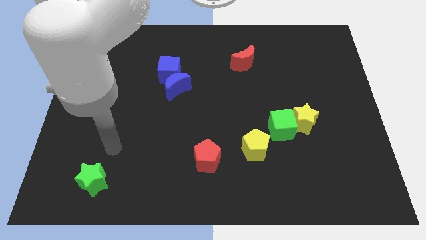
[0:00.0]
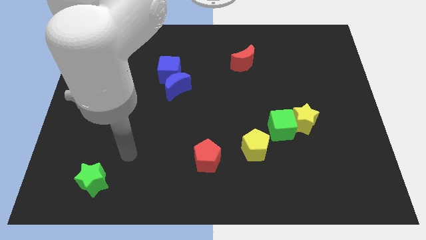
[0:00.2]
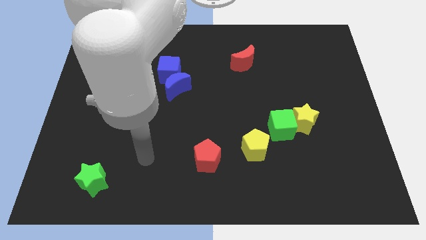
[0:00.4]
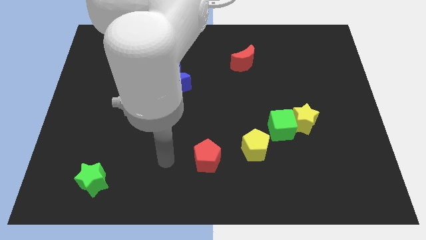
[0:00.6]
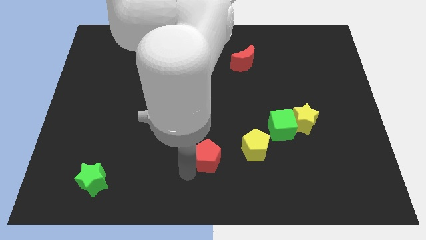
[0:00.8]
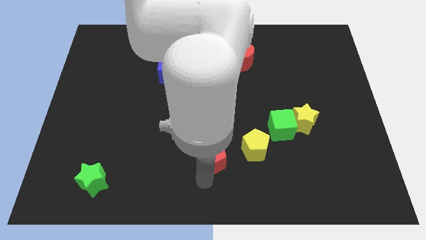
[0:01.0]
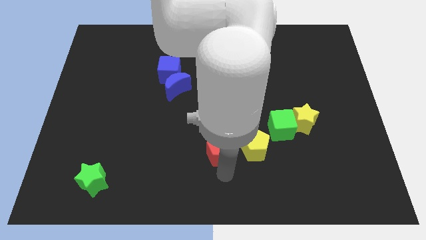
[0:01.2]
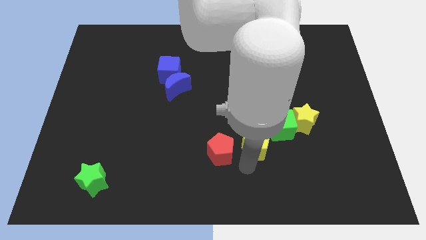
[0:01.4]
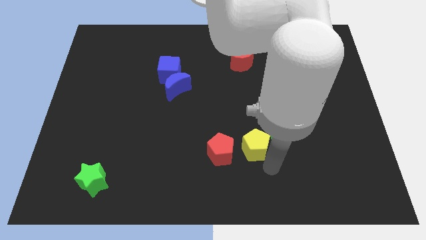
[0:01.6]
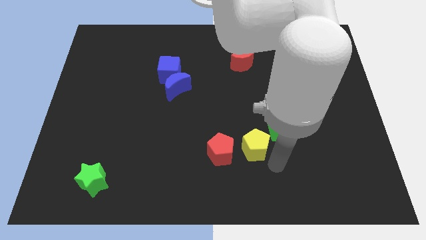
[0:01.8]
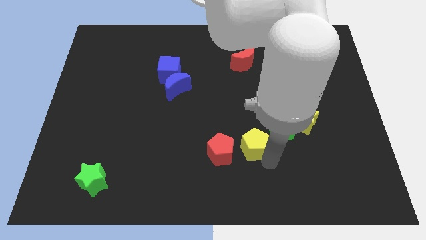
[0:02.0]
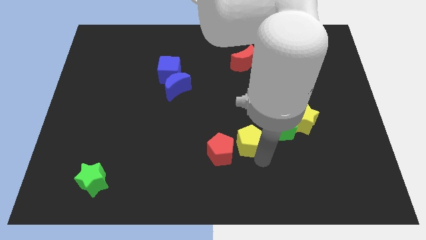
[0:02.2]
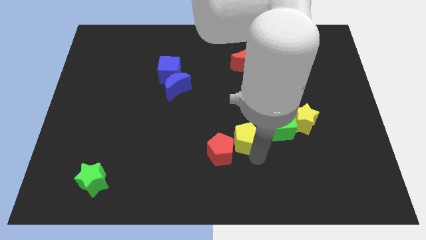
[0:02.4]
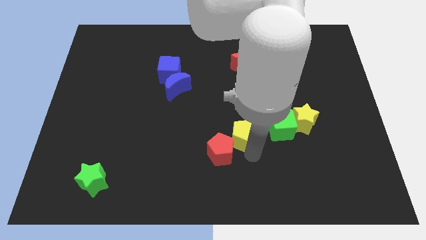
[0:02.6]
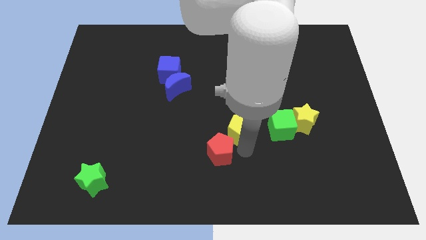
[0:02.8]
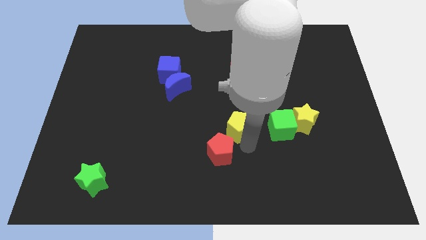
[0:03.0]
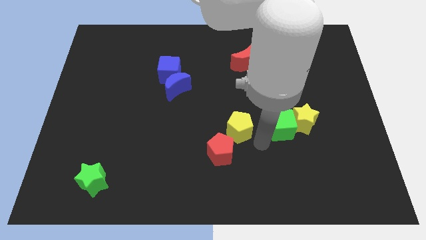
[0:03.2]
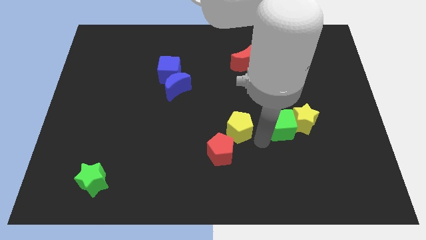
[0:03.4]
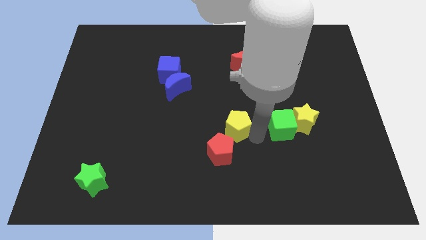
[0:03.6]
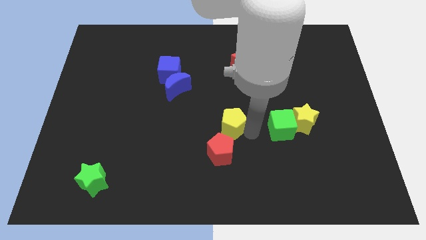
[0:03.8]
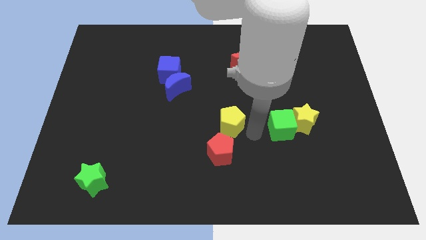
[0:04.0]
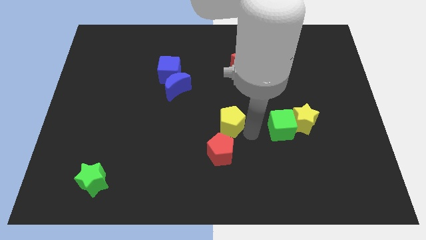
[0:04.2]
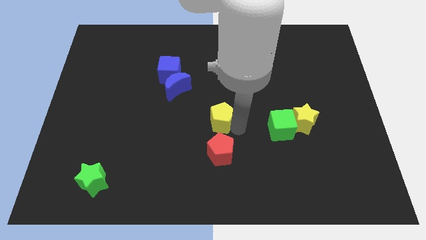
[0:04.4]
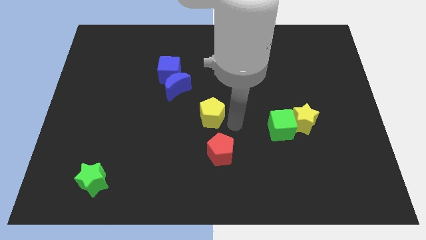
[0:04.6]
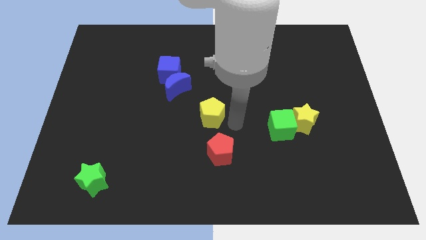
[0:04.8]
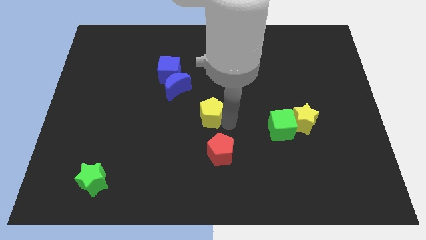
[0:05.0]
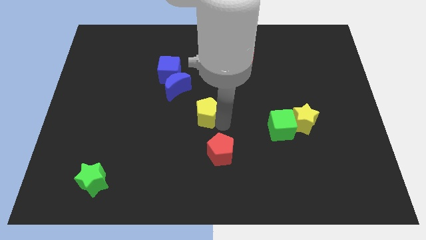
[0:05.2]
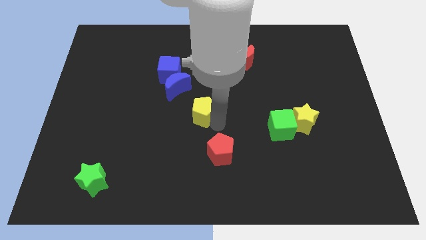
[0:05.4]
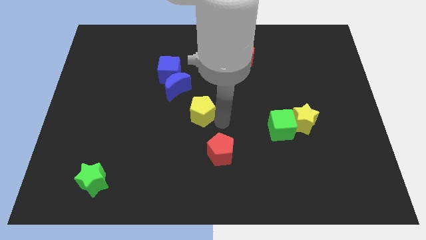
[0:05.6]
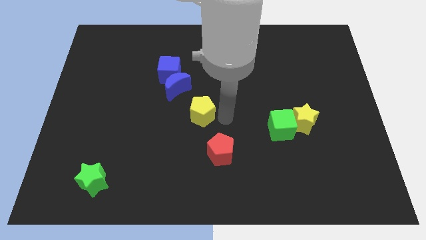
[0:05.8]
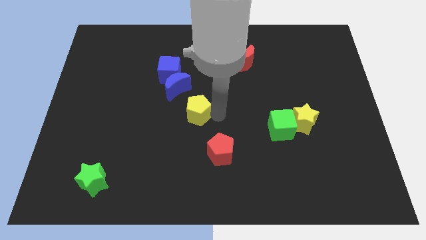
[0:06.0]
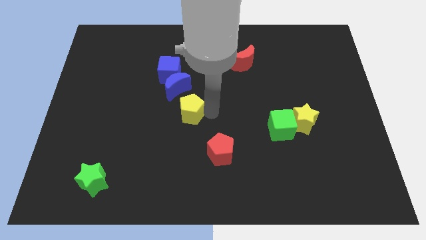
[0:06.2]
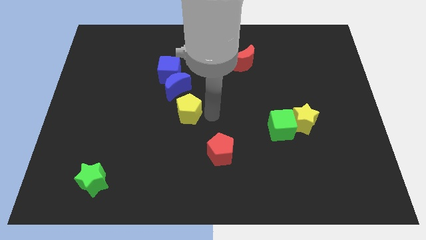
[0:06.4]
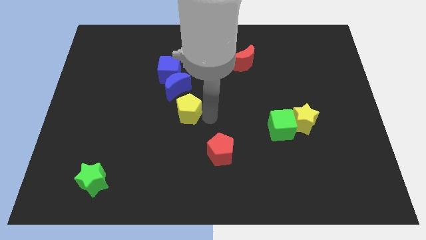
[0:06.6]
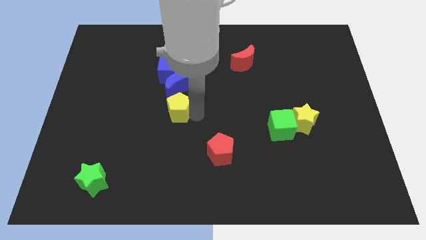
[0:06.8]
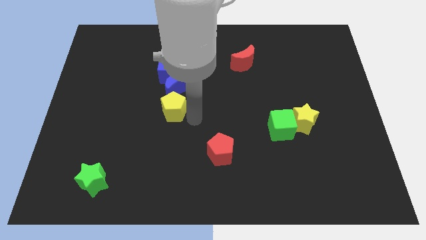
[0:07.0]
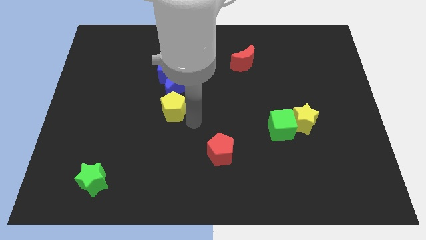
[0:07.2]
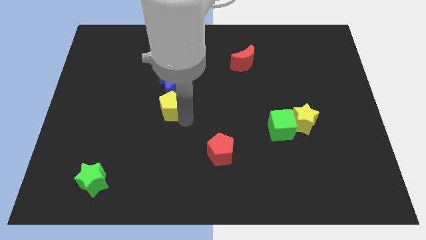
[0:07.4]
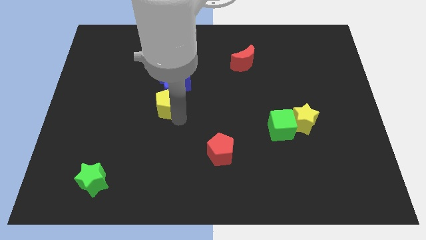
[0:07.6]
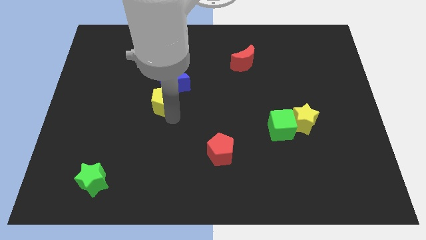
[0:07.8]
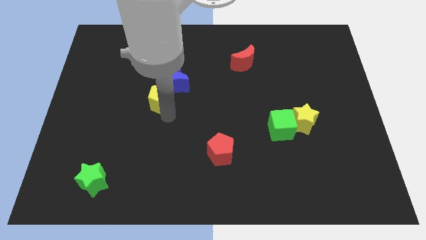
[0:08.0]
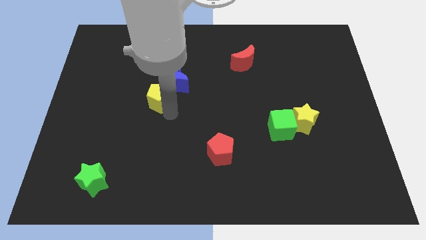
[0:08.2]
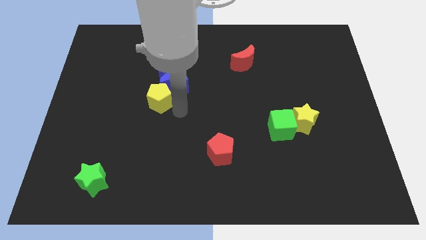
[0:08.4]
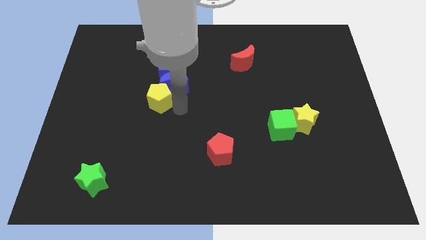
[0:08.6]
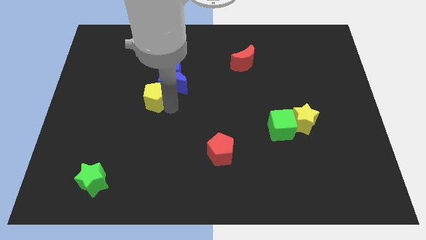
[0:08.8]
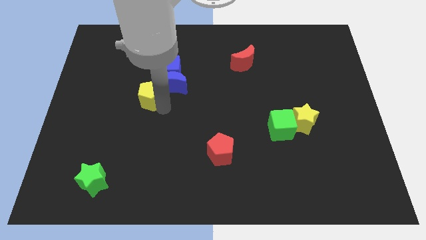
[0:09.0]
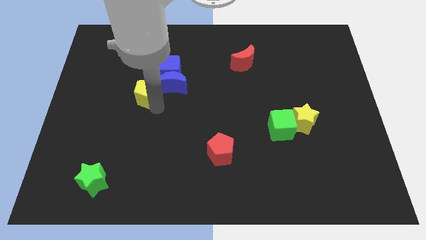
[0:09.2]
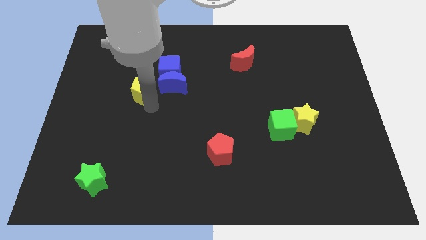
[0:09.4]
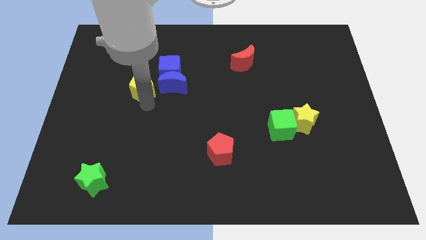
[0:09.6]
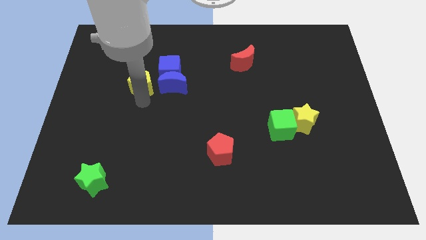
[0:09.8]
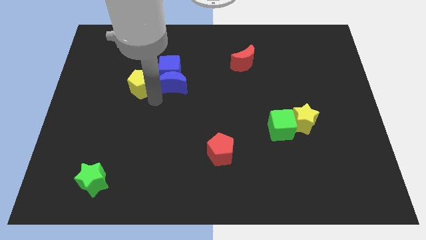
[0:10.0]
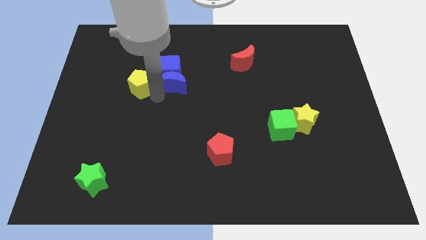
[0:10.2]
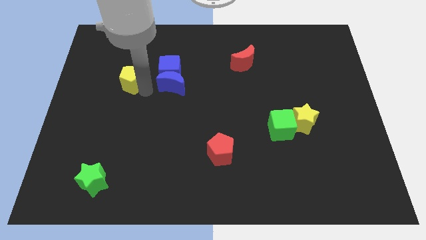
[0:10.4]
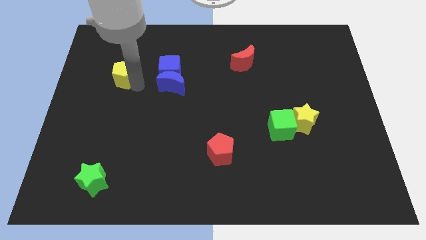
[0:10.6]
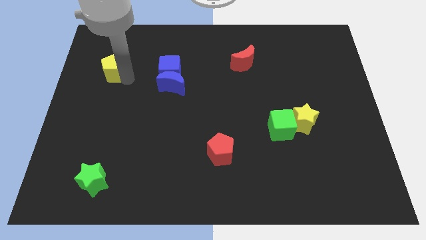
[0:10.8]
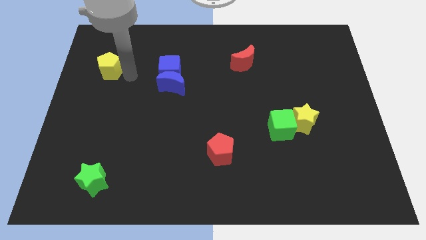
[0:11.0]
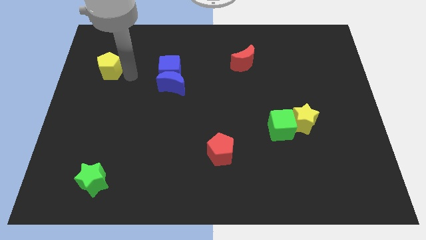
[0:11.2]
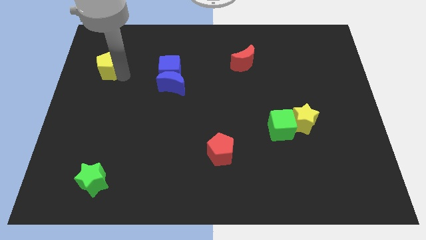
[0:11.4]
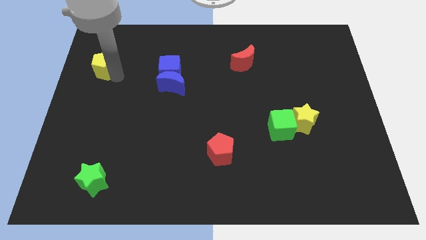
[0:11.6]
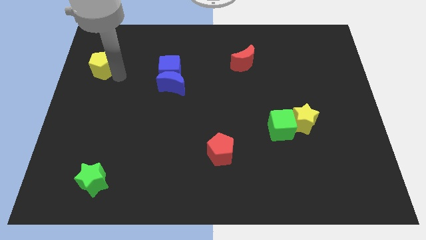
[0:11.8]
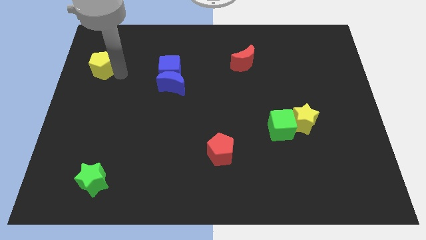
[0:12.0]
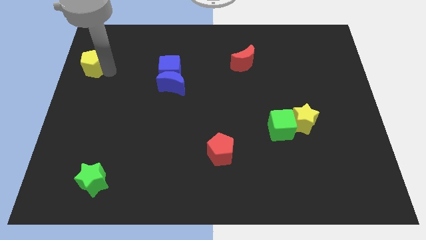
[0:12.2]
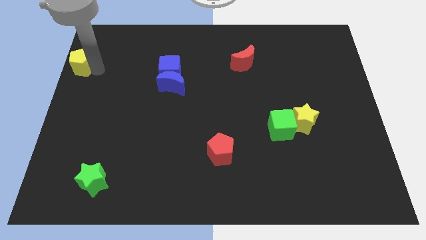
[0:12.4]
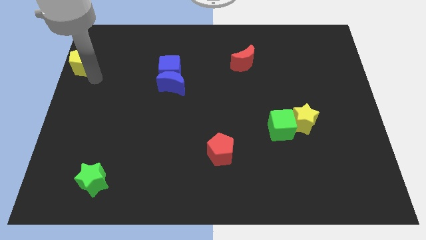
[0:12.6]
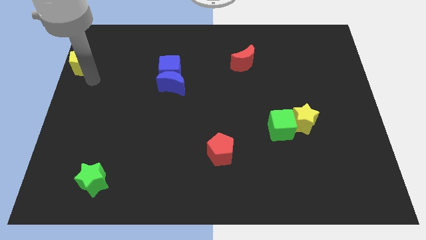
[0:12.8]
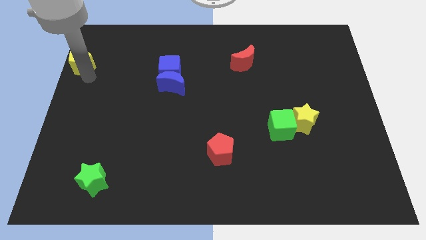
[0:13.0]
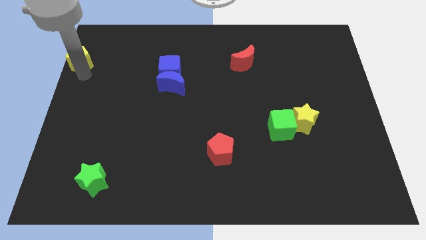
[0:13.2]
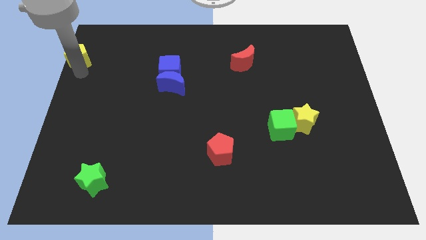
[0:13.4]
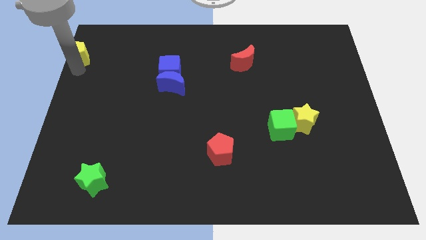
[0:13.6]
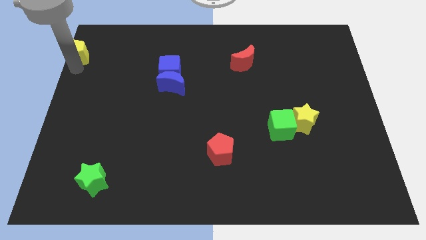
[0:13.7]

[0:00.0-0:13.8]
move the yellow pentagon to the top left corner
